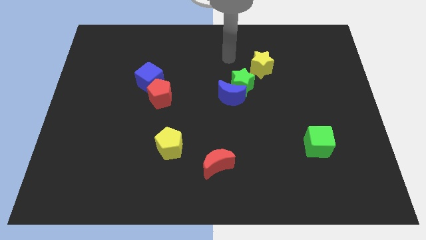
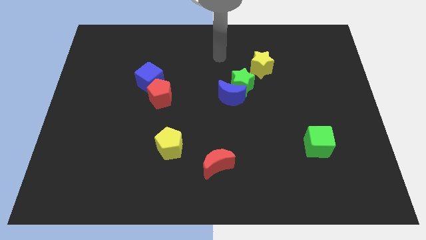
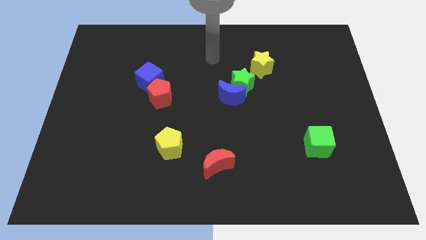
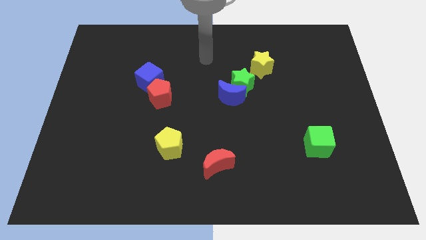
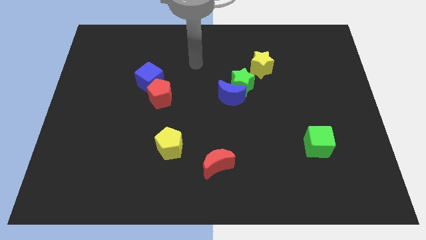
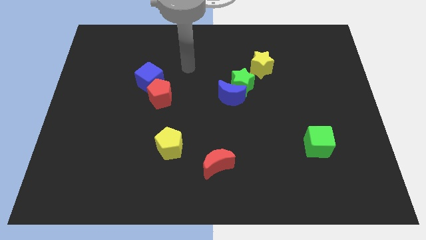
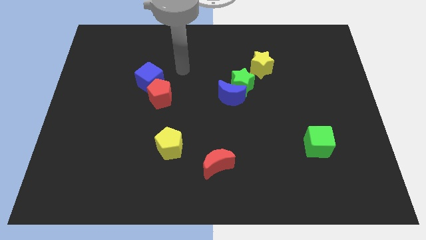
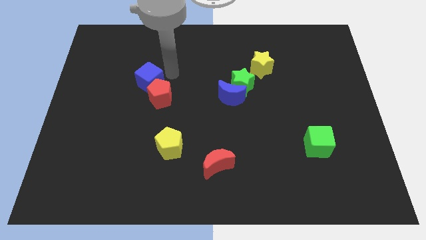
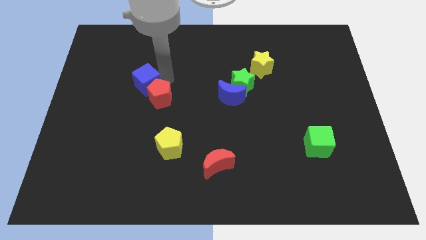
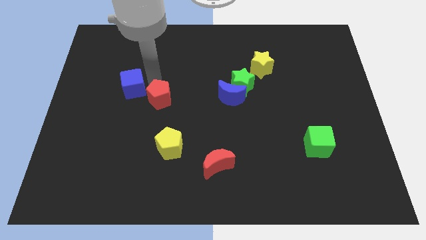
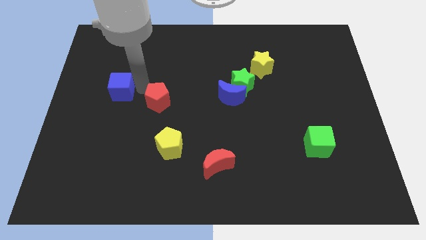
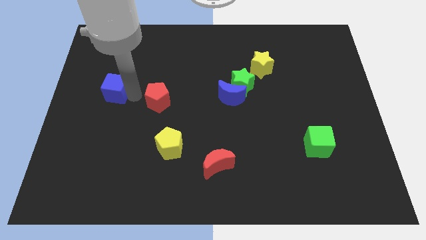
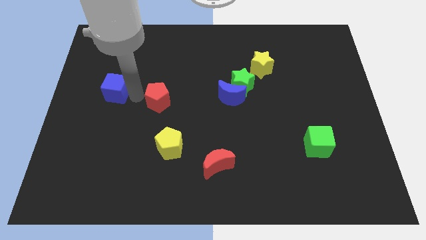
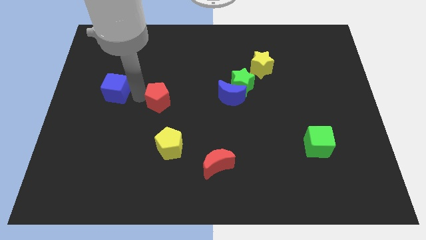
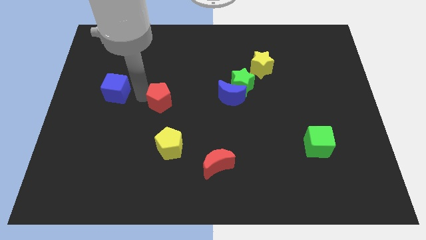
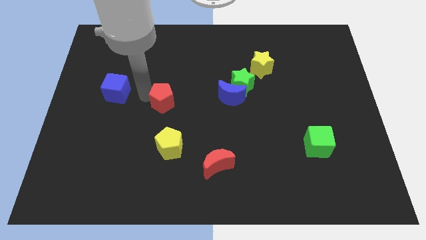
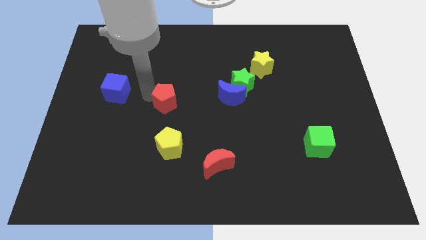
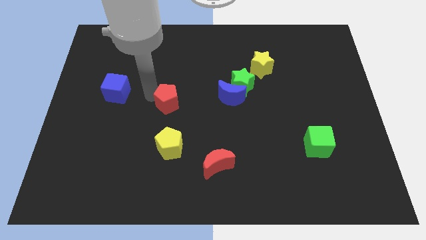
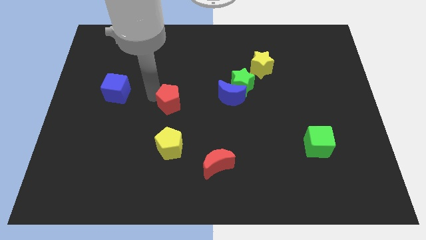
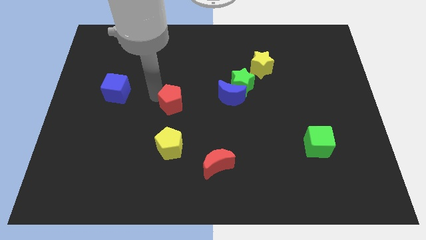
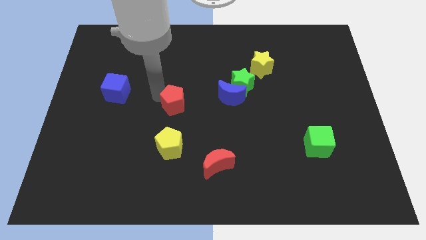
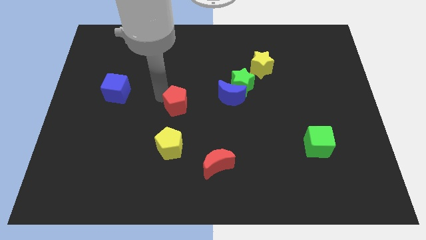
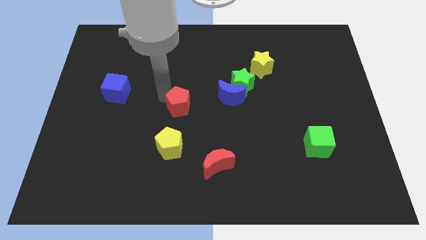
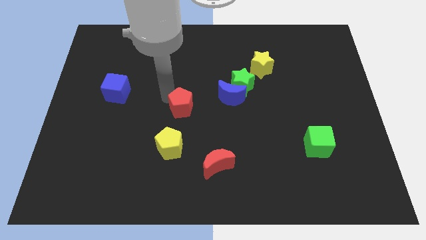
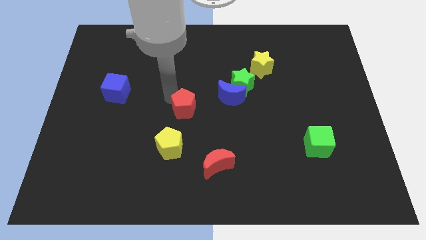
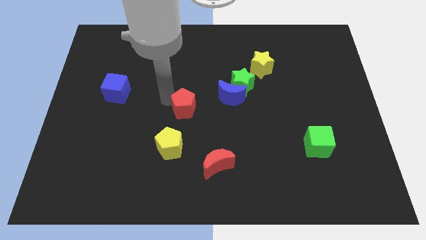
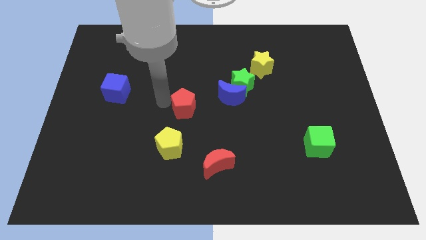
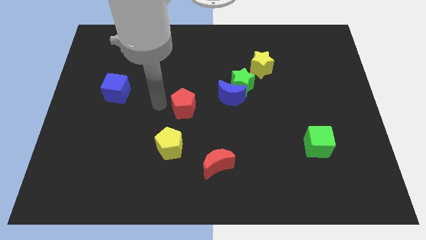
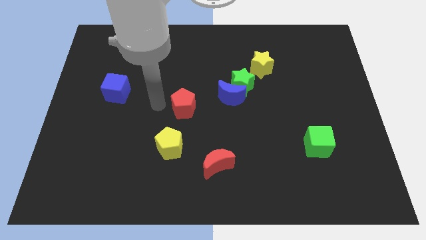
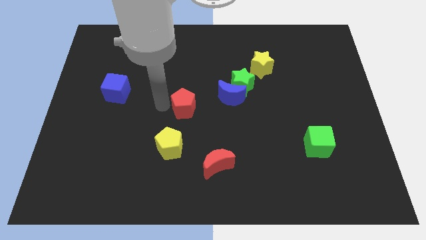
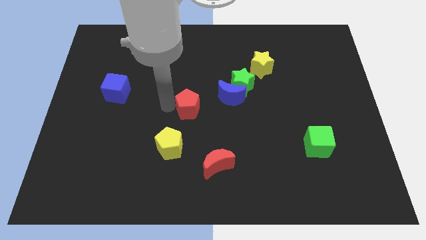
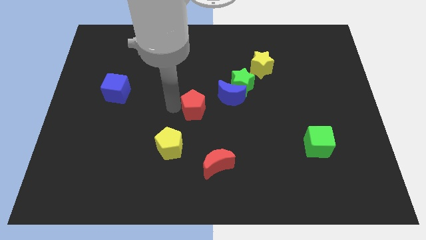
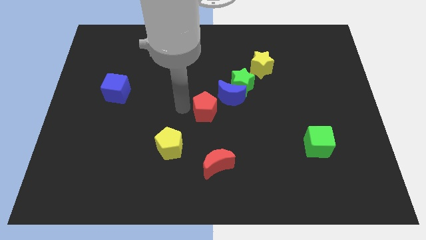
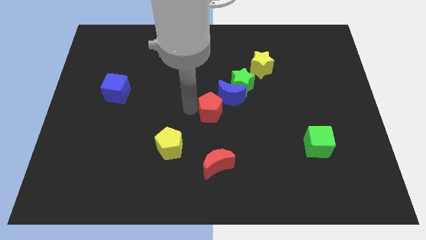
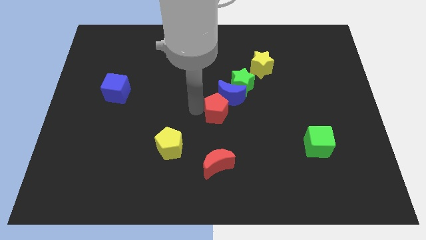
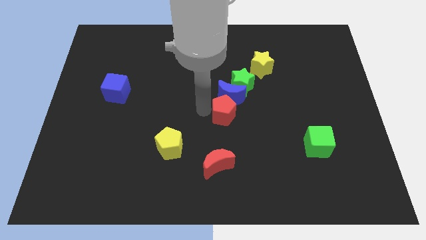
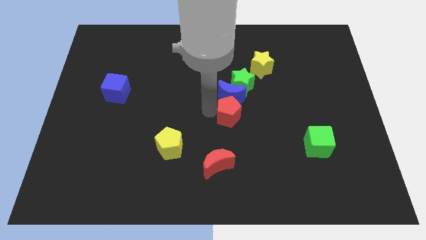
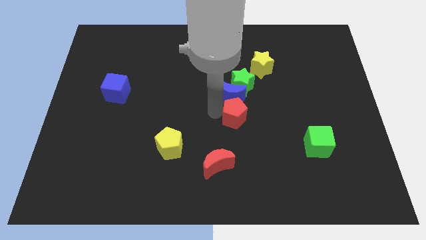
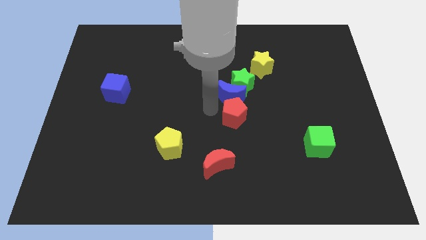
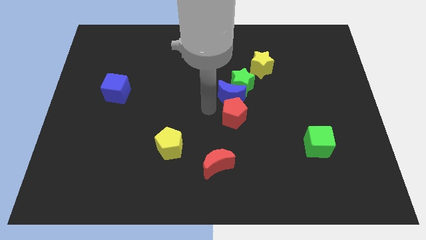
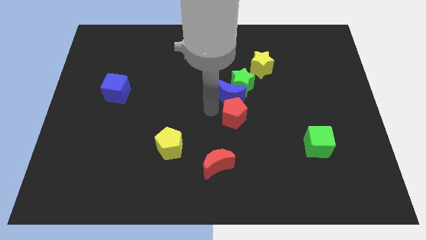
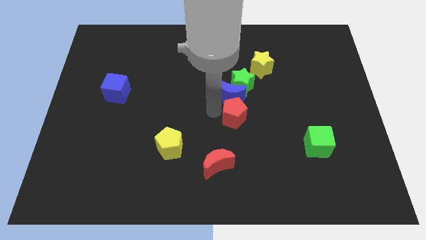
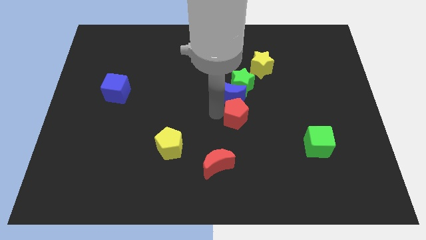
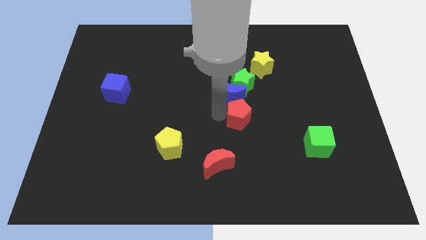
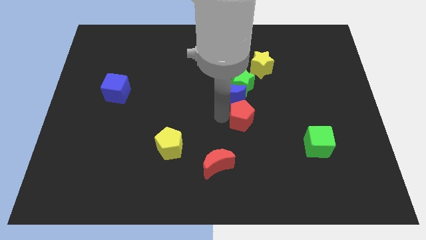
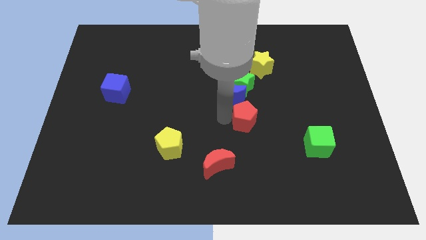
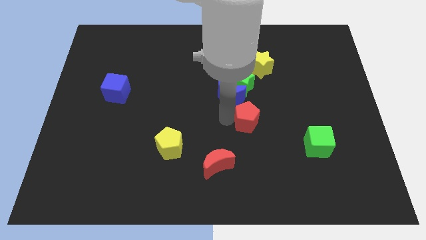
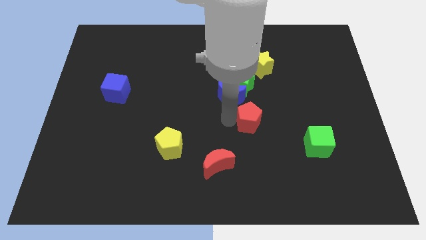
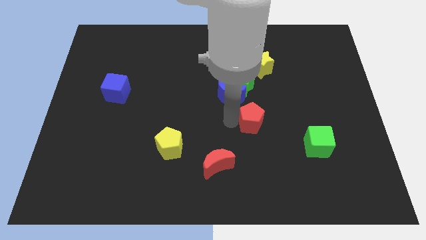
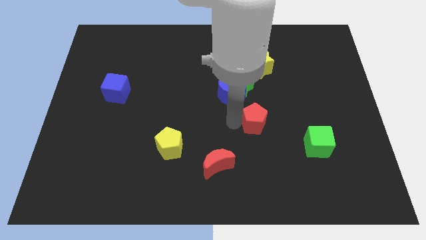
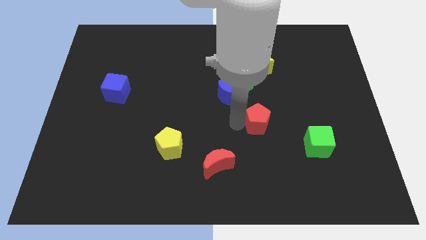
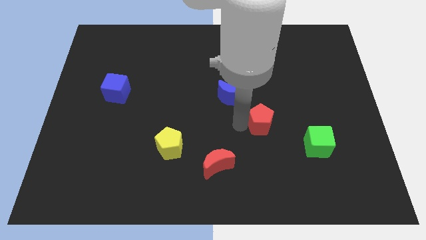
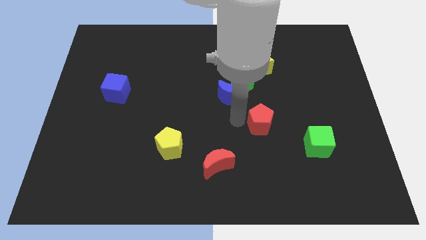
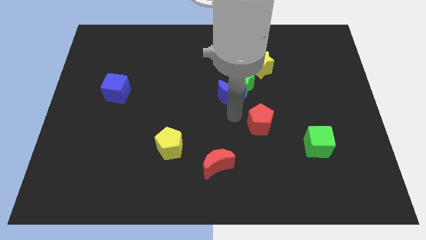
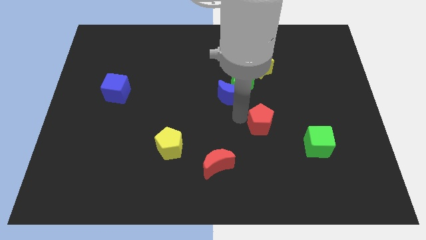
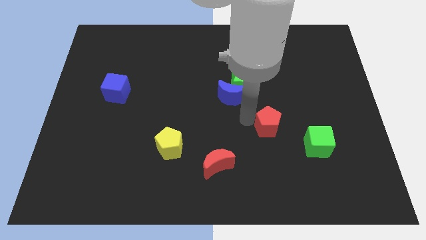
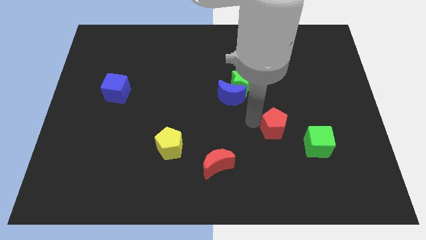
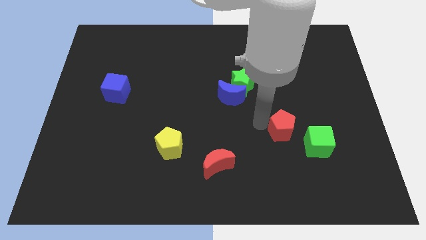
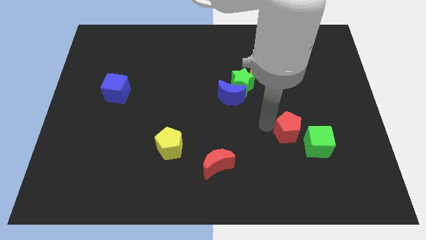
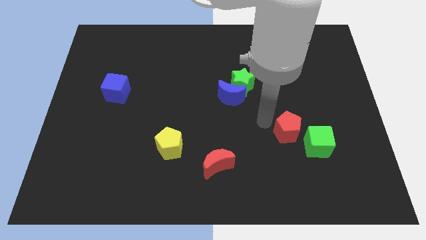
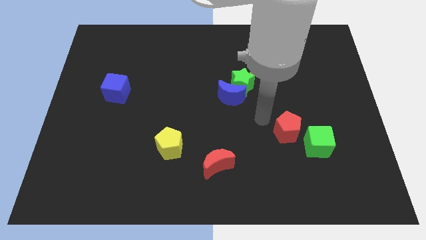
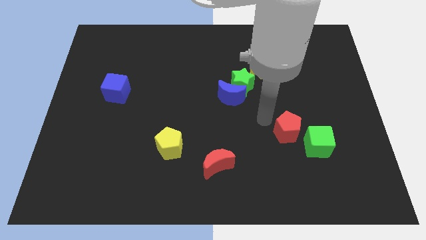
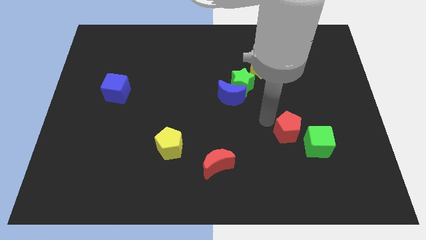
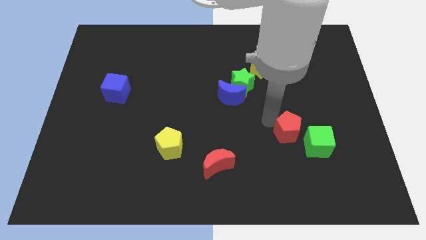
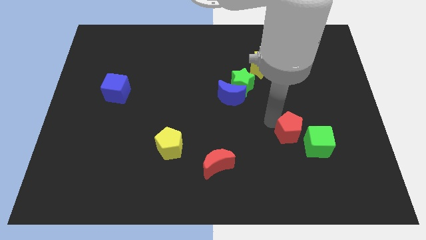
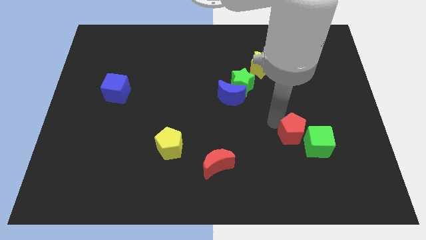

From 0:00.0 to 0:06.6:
slide the red pentagon towards the green cube

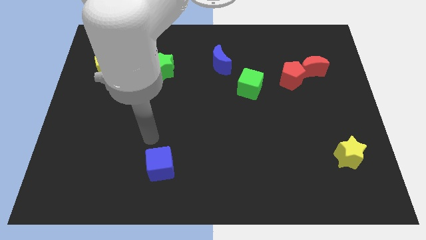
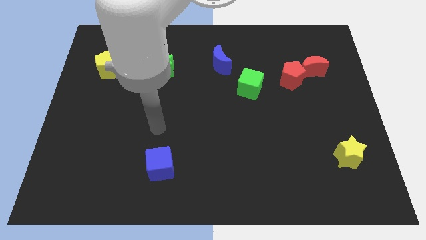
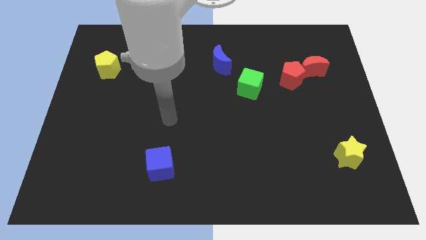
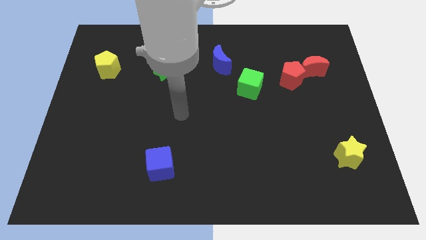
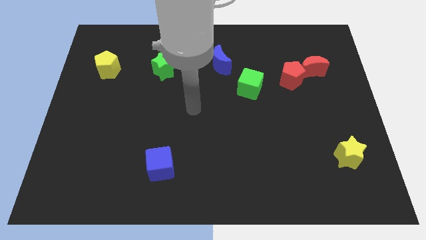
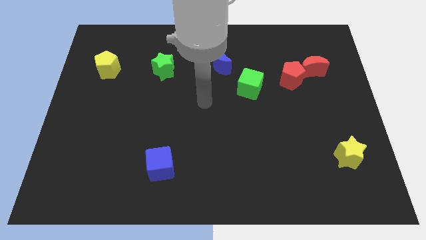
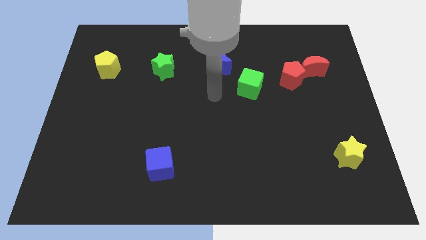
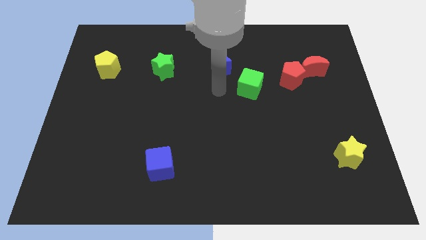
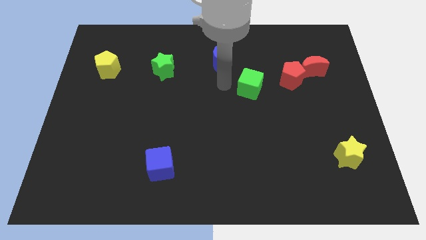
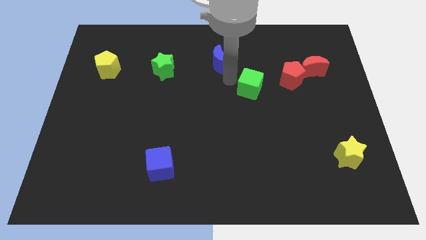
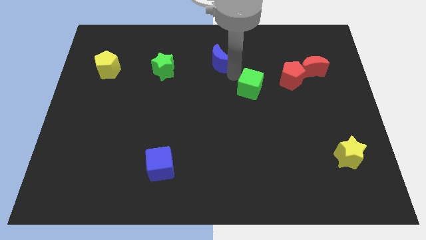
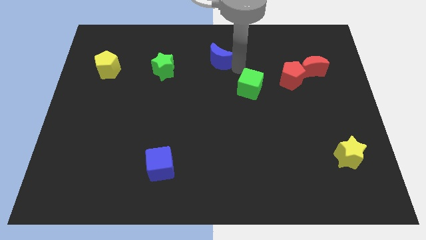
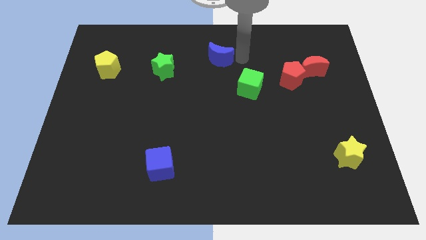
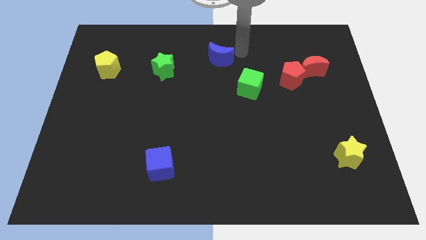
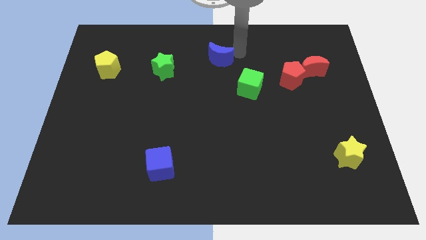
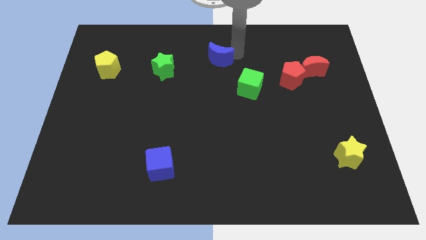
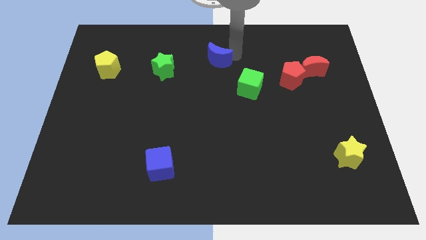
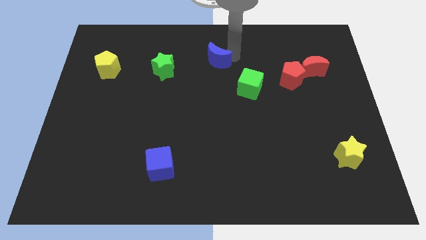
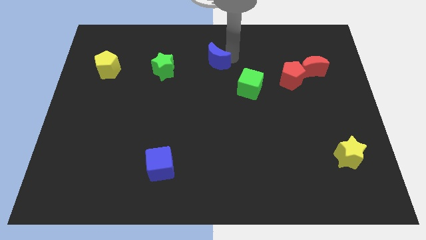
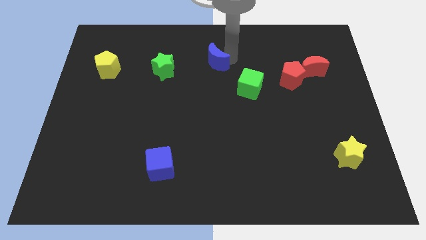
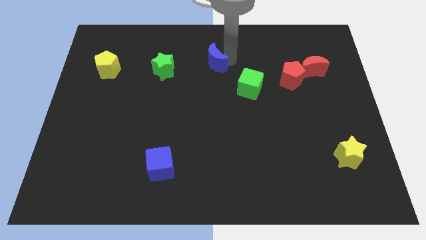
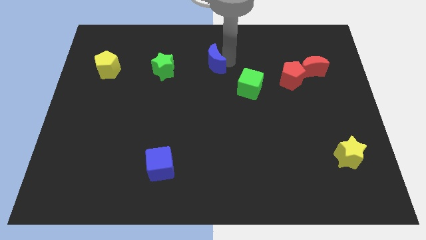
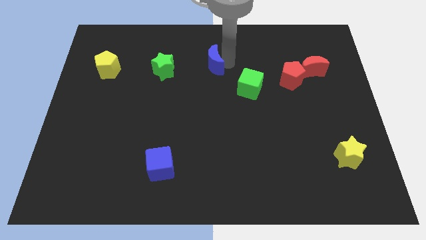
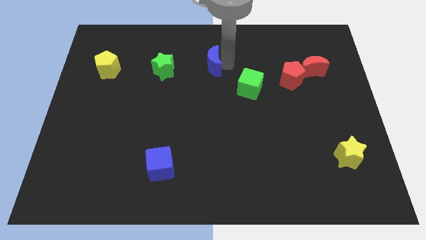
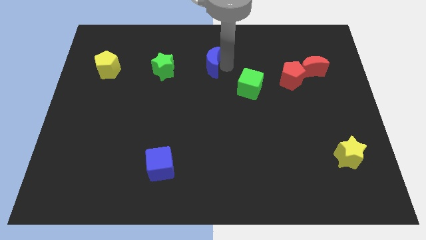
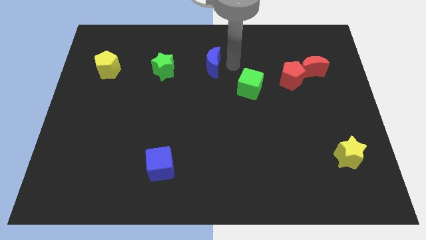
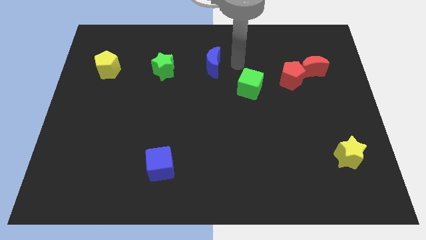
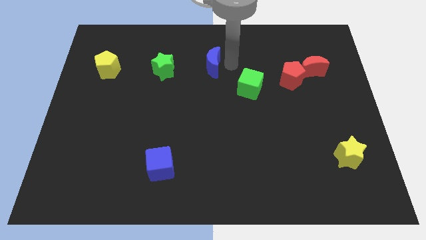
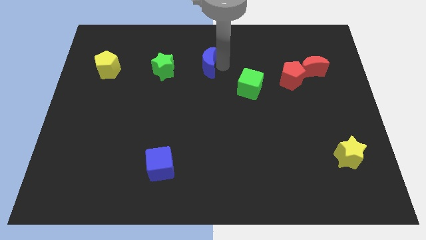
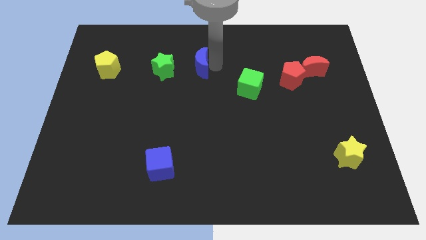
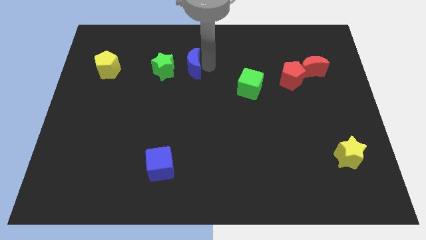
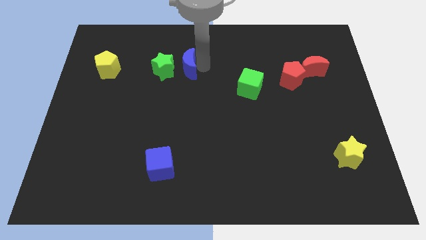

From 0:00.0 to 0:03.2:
slide the blue moon towards the green star
